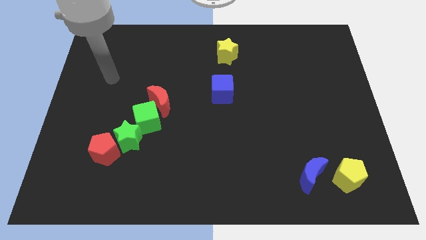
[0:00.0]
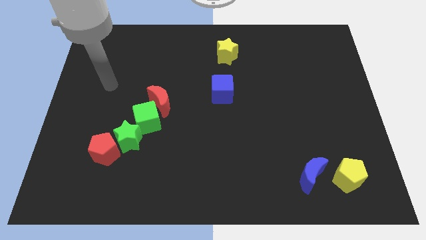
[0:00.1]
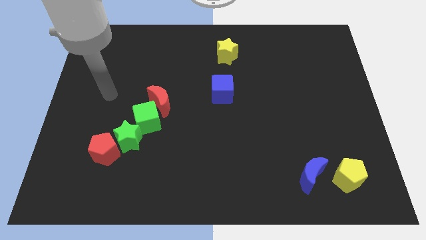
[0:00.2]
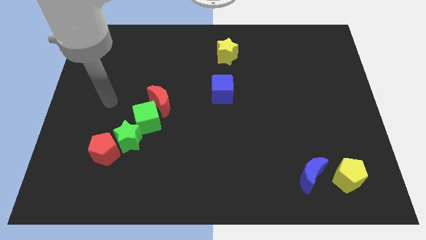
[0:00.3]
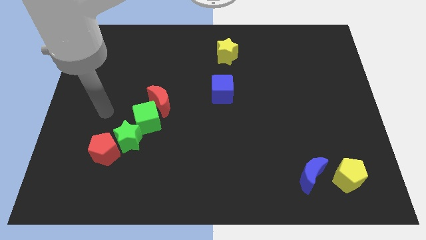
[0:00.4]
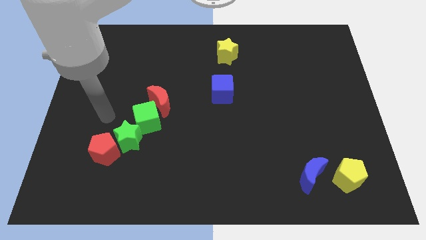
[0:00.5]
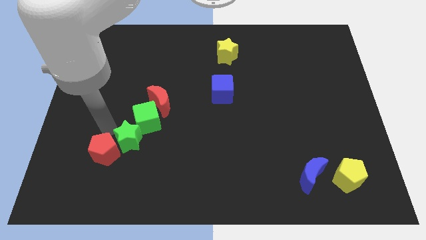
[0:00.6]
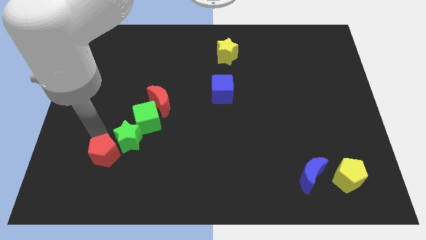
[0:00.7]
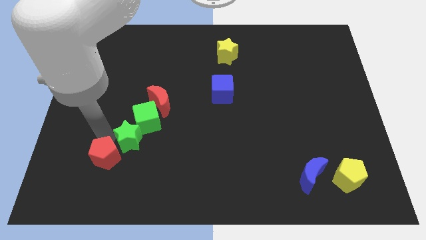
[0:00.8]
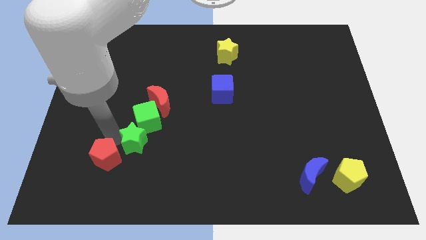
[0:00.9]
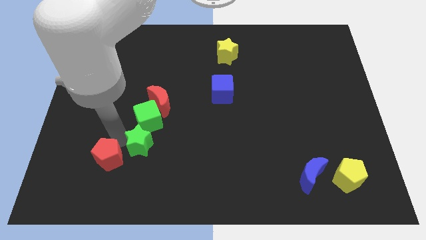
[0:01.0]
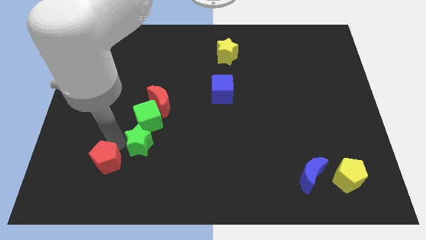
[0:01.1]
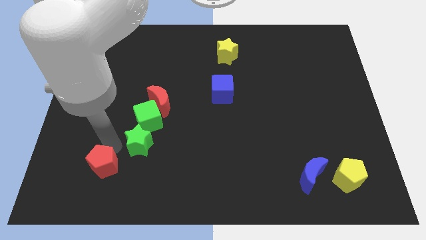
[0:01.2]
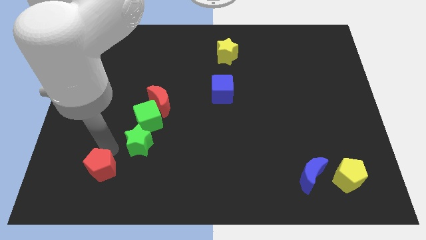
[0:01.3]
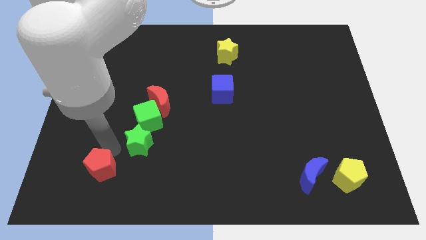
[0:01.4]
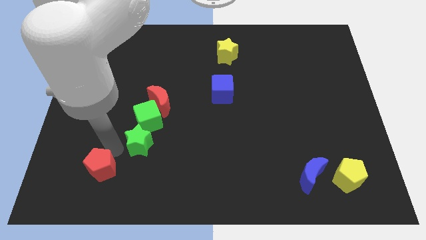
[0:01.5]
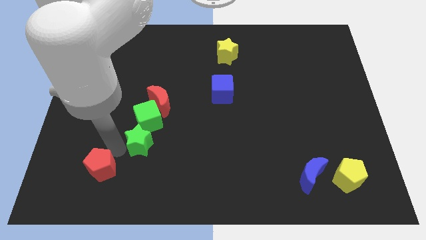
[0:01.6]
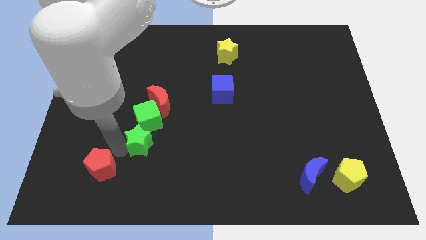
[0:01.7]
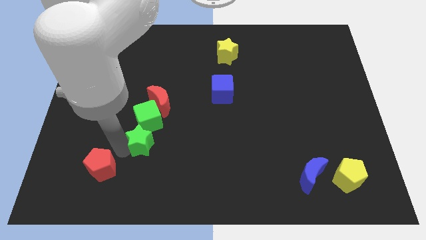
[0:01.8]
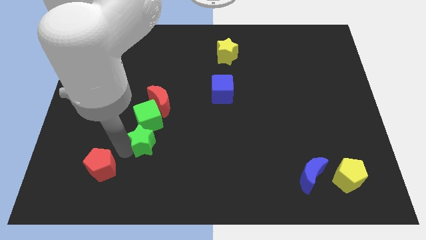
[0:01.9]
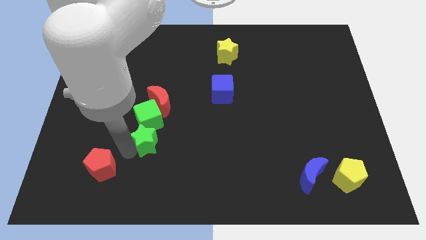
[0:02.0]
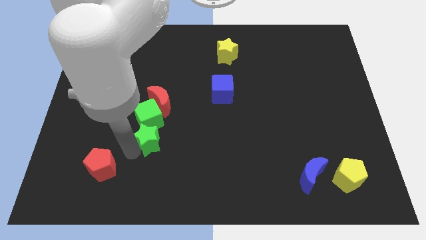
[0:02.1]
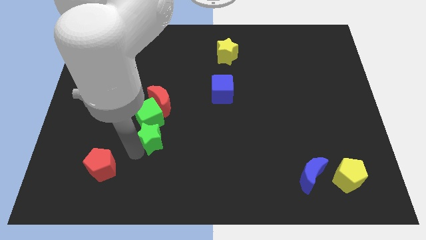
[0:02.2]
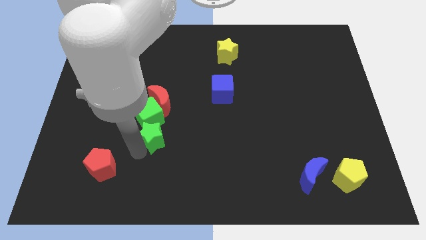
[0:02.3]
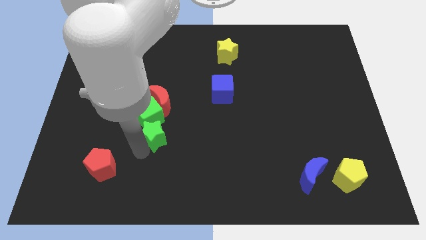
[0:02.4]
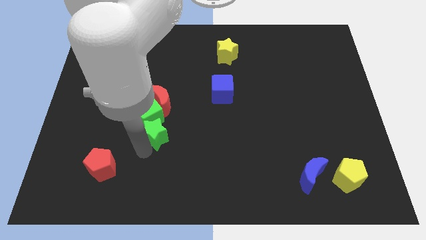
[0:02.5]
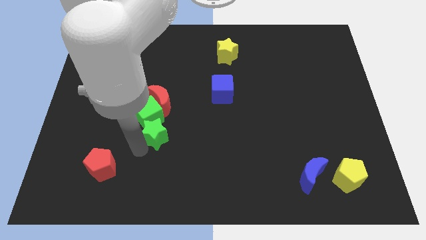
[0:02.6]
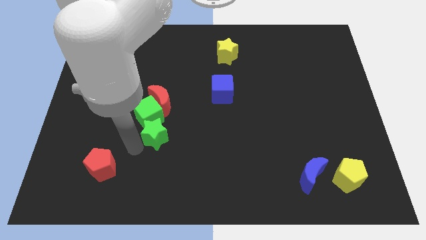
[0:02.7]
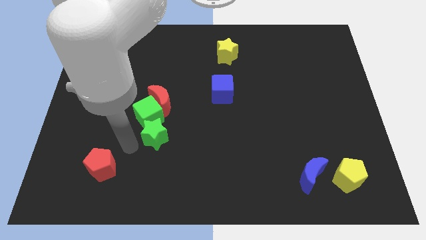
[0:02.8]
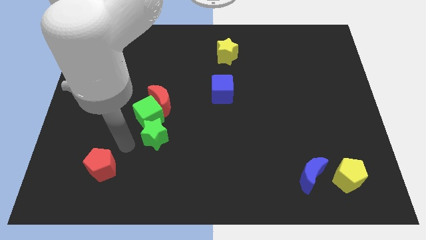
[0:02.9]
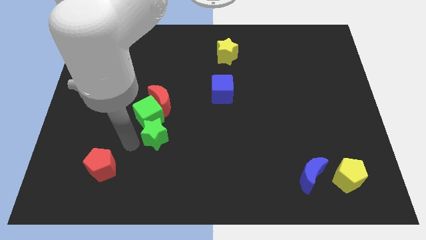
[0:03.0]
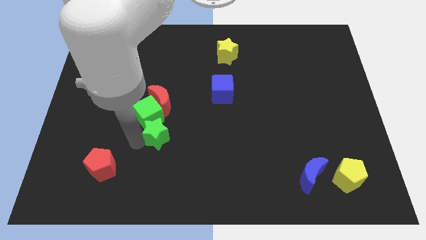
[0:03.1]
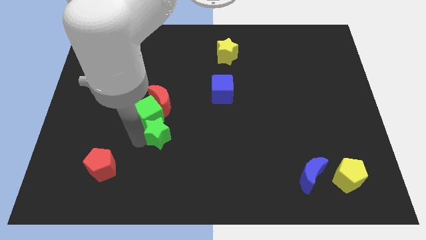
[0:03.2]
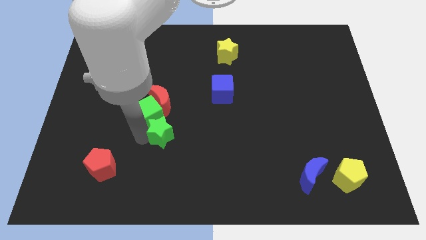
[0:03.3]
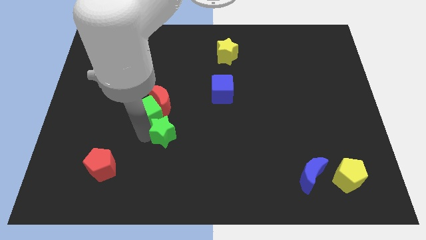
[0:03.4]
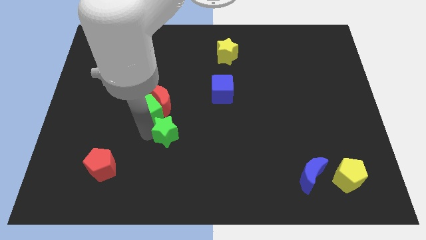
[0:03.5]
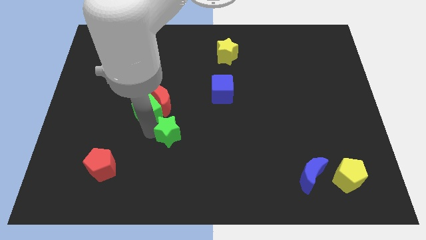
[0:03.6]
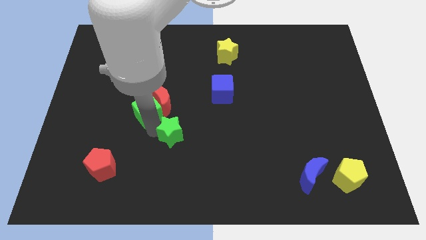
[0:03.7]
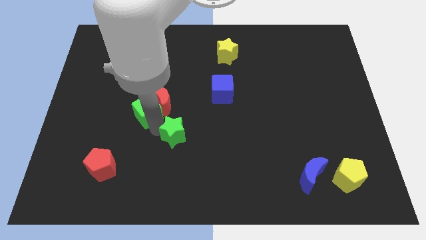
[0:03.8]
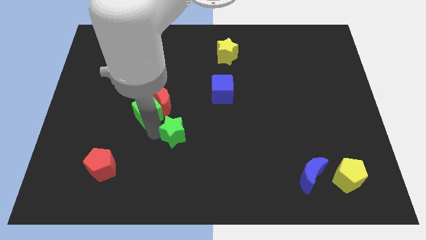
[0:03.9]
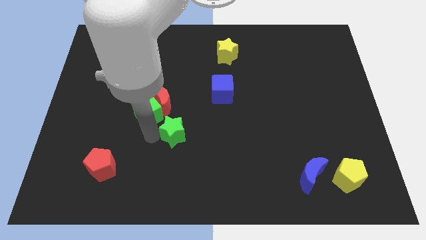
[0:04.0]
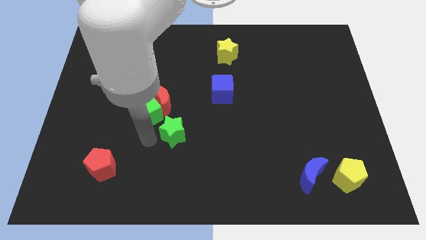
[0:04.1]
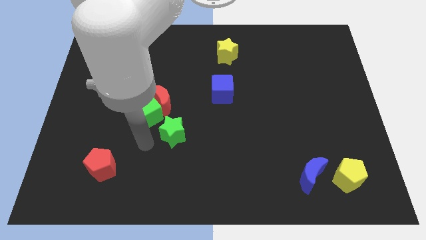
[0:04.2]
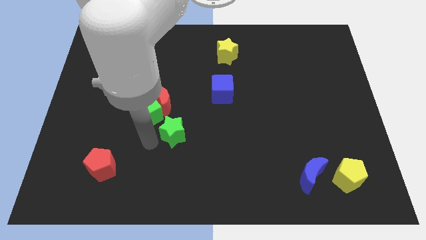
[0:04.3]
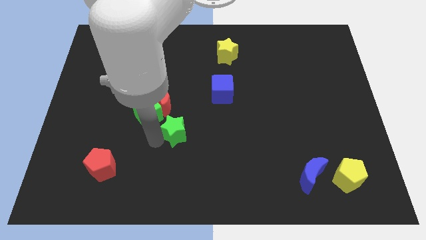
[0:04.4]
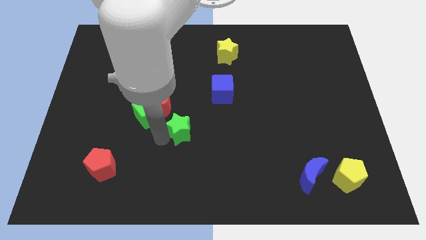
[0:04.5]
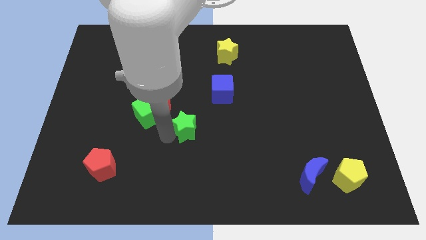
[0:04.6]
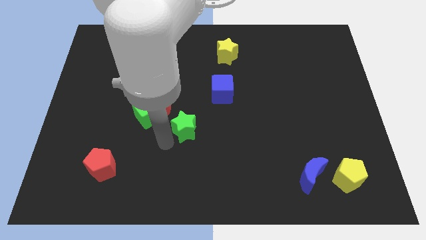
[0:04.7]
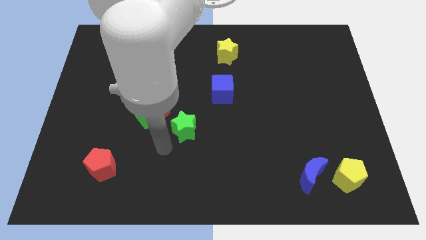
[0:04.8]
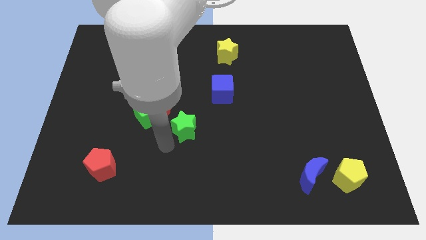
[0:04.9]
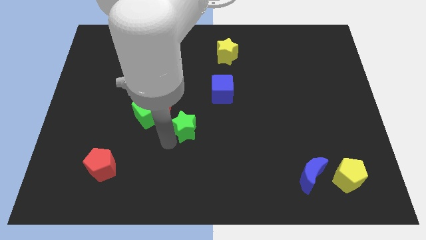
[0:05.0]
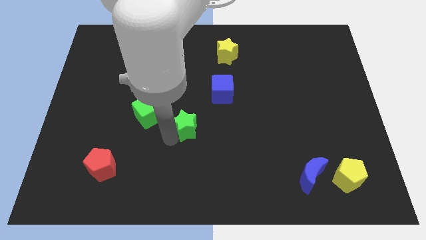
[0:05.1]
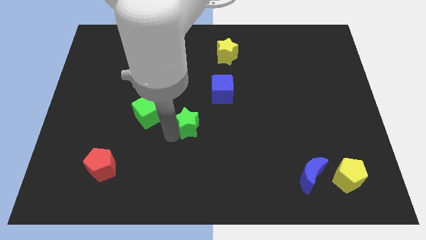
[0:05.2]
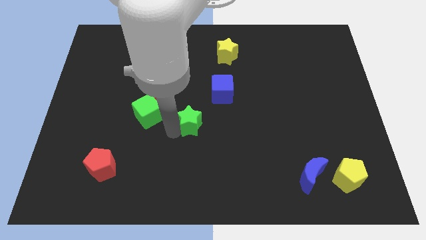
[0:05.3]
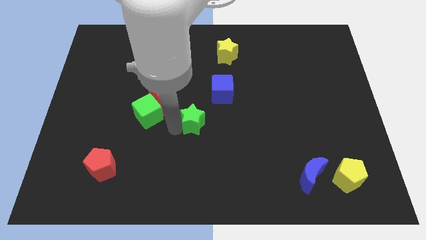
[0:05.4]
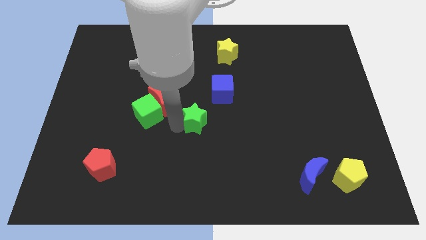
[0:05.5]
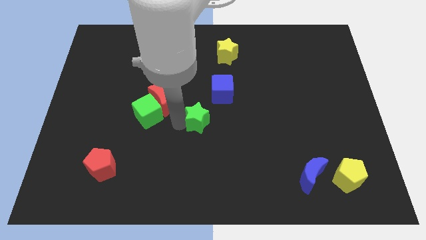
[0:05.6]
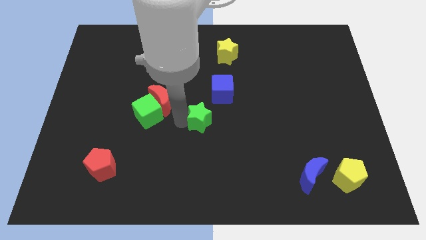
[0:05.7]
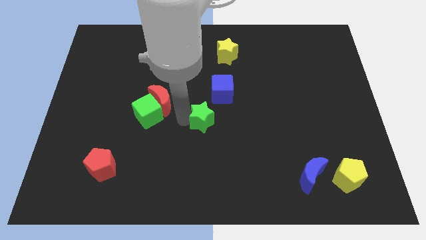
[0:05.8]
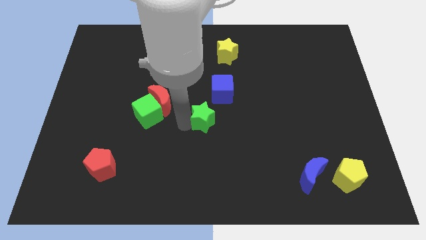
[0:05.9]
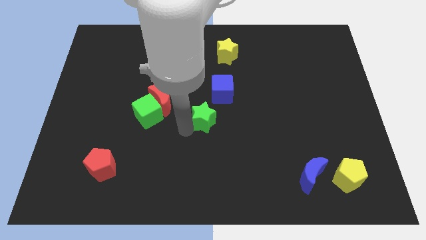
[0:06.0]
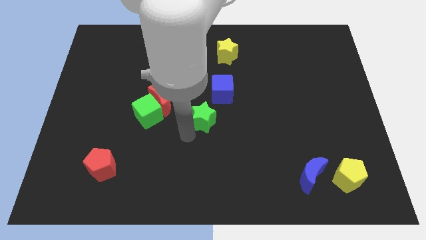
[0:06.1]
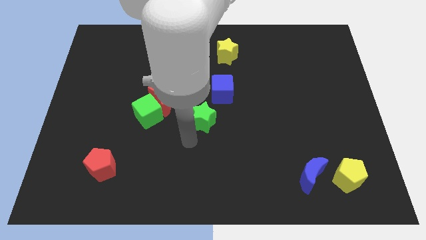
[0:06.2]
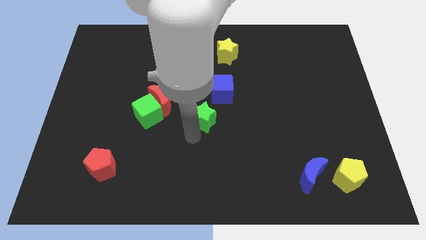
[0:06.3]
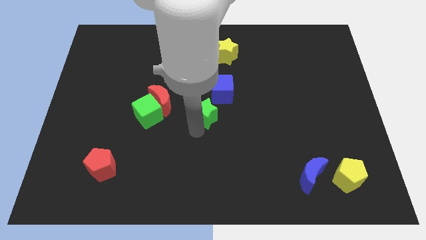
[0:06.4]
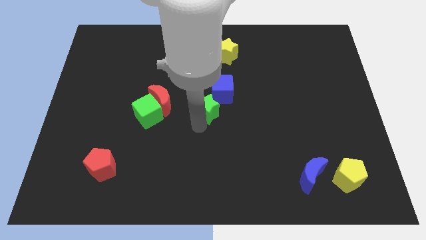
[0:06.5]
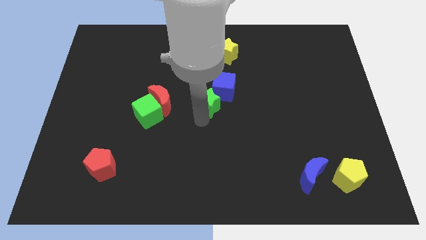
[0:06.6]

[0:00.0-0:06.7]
slide the green star next to the blue cube
